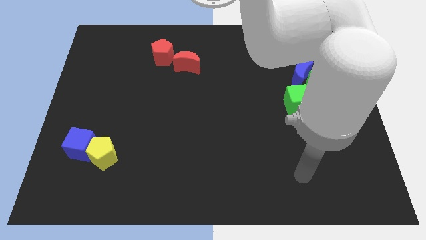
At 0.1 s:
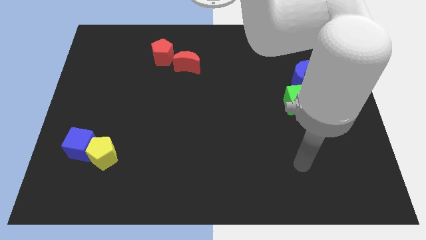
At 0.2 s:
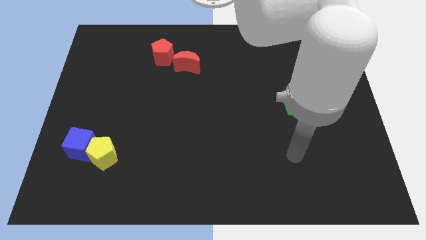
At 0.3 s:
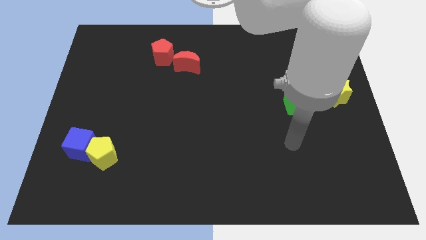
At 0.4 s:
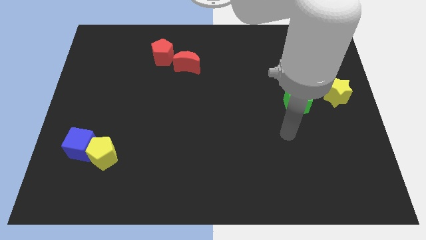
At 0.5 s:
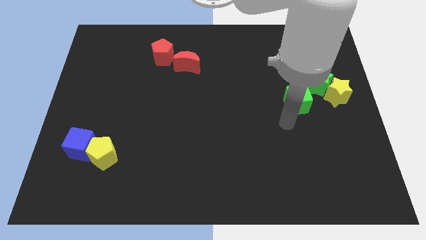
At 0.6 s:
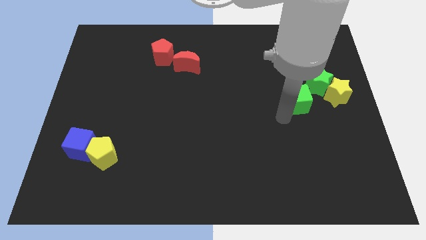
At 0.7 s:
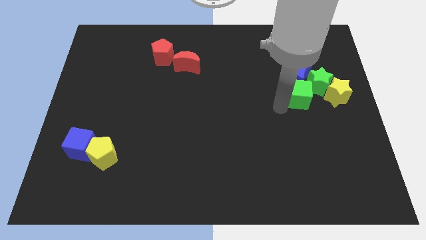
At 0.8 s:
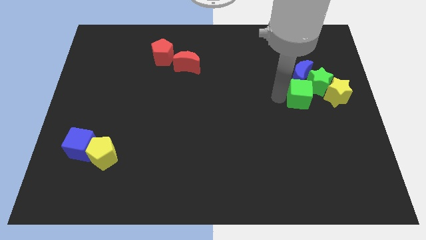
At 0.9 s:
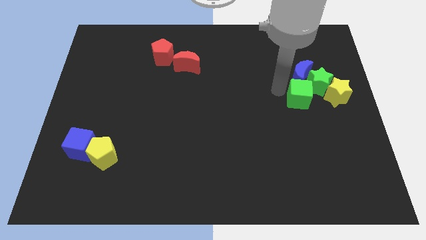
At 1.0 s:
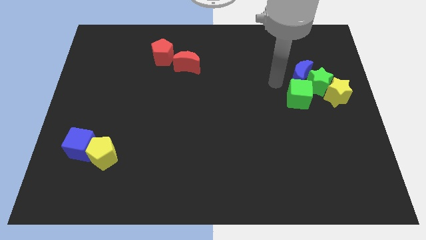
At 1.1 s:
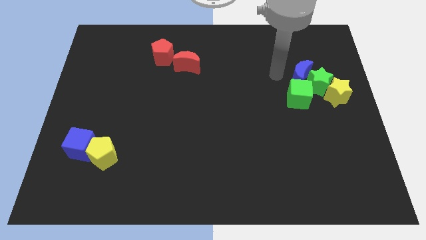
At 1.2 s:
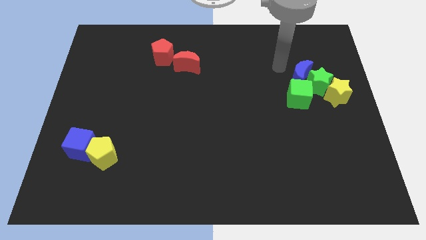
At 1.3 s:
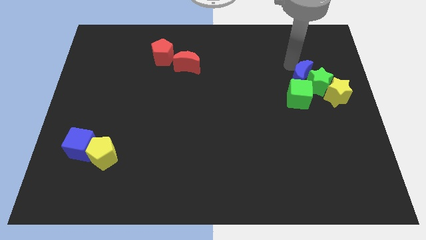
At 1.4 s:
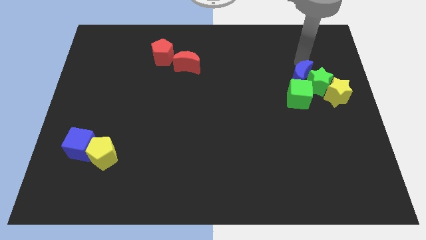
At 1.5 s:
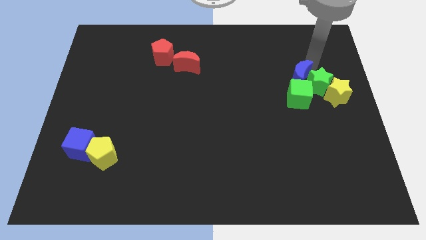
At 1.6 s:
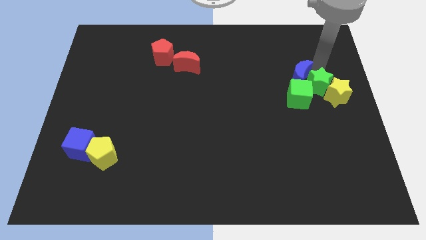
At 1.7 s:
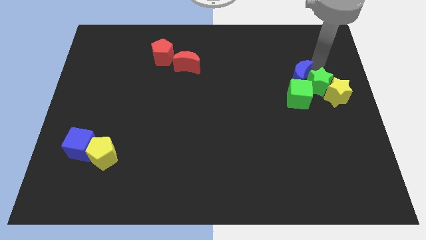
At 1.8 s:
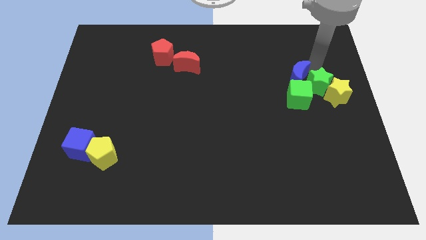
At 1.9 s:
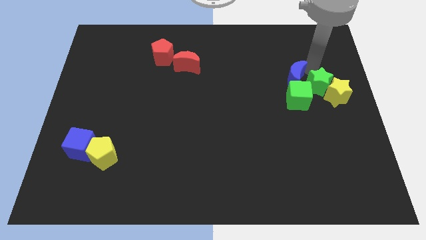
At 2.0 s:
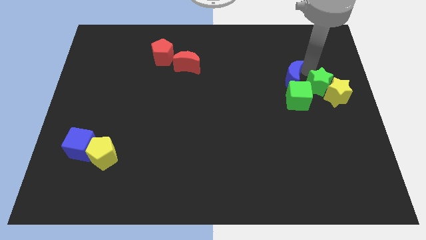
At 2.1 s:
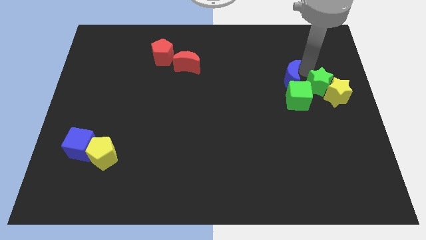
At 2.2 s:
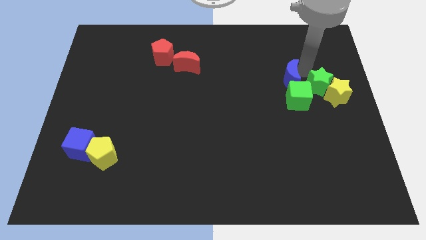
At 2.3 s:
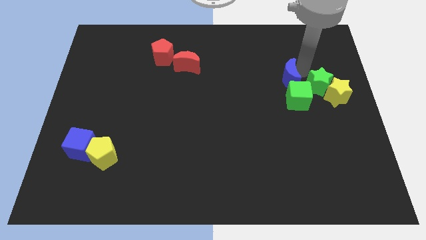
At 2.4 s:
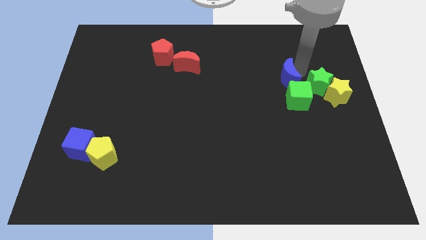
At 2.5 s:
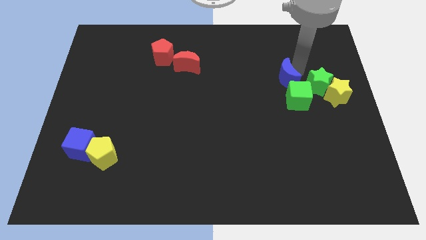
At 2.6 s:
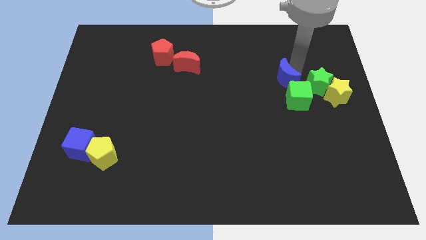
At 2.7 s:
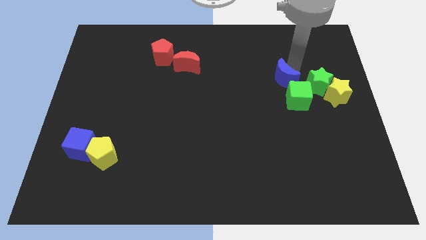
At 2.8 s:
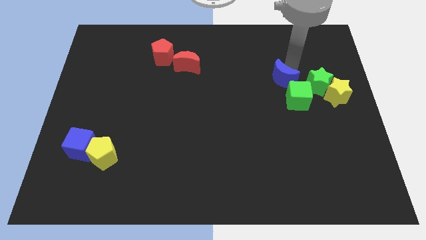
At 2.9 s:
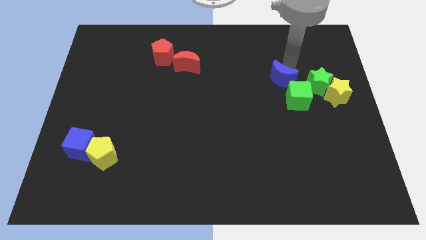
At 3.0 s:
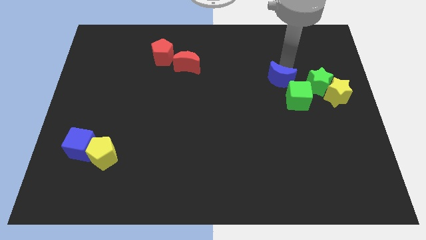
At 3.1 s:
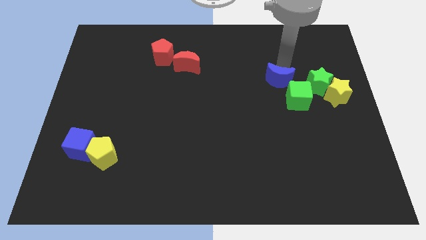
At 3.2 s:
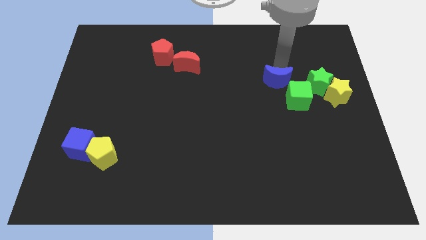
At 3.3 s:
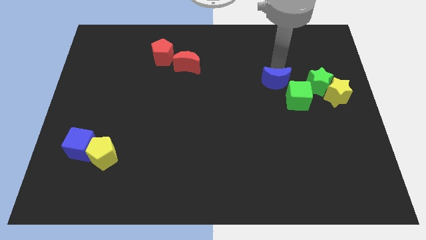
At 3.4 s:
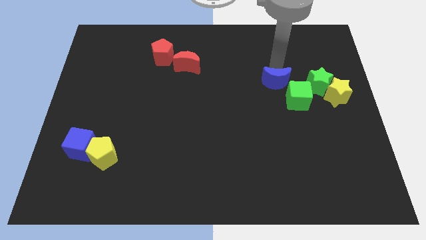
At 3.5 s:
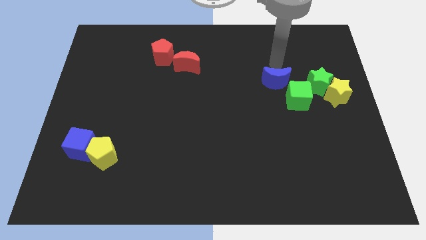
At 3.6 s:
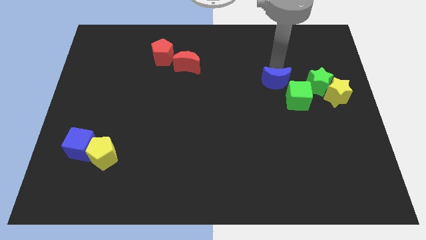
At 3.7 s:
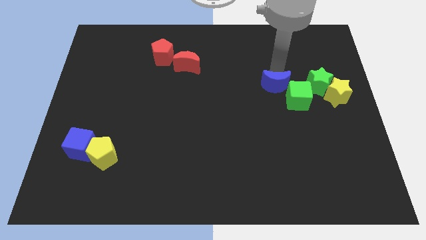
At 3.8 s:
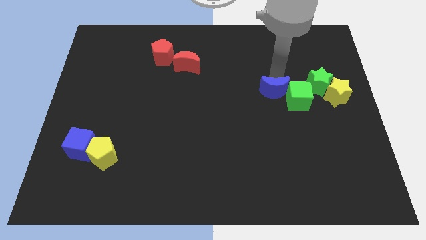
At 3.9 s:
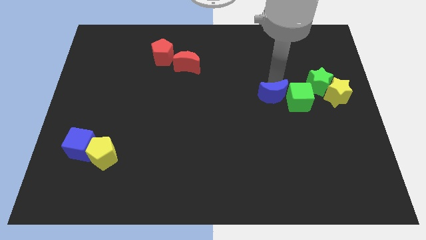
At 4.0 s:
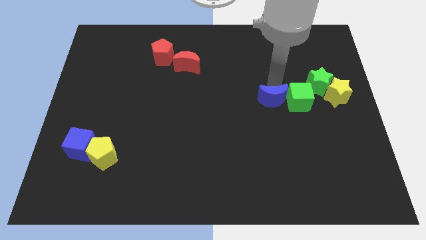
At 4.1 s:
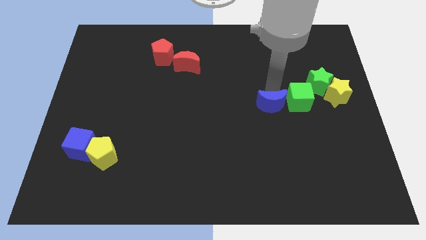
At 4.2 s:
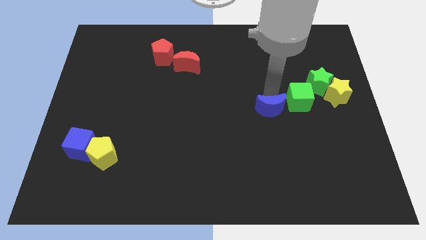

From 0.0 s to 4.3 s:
slightly slide the blue moon downwards

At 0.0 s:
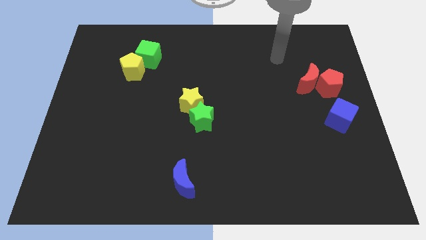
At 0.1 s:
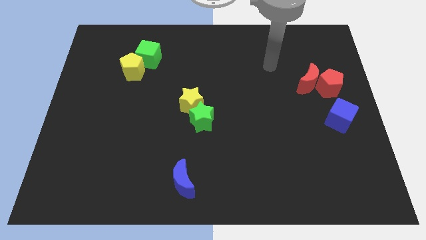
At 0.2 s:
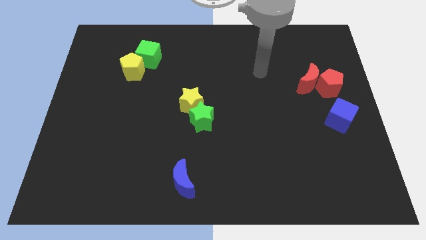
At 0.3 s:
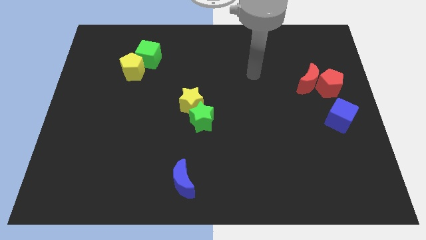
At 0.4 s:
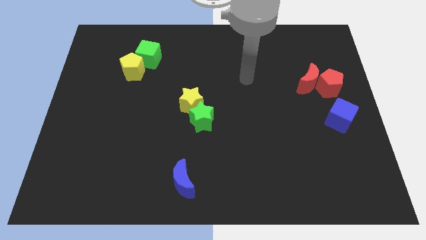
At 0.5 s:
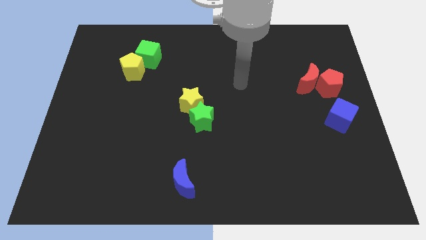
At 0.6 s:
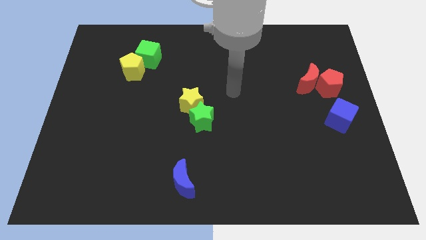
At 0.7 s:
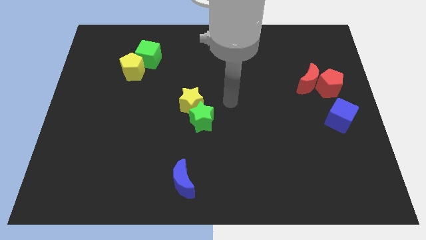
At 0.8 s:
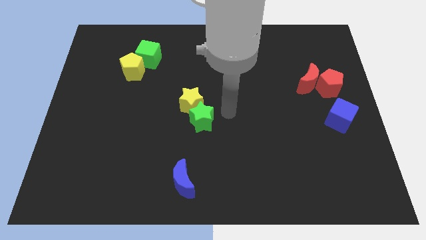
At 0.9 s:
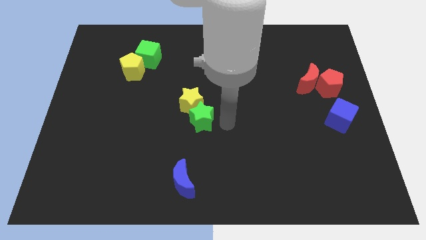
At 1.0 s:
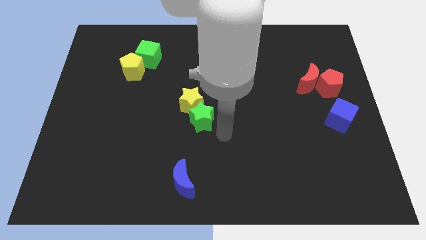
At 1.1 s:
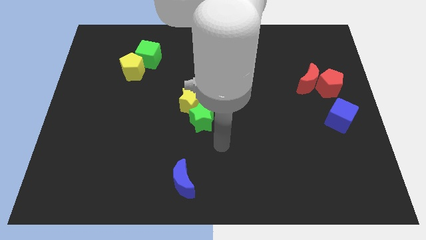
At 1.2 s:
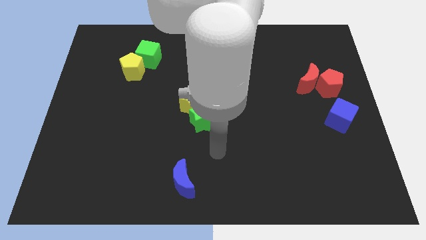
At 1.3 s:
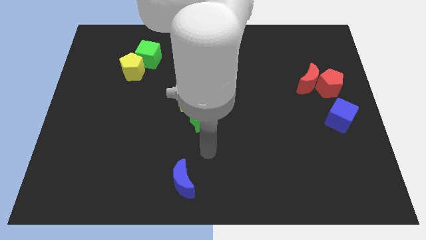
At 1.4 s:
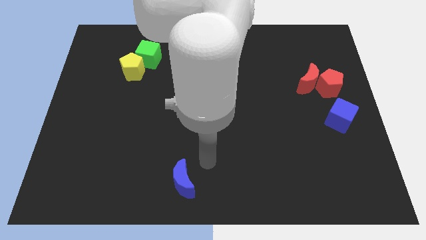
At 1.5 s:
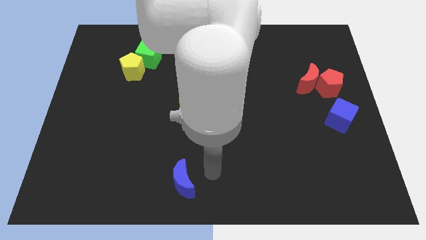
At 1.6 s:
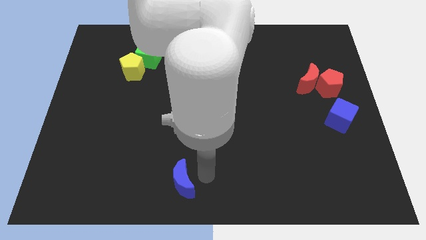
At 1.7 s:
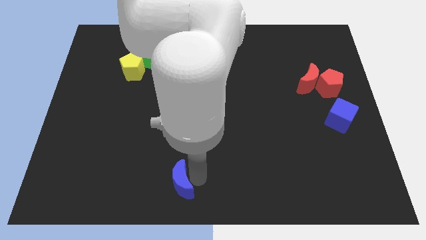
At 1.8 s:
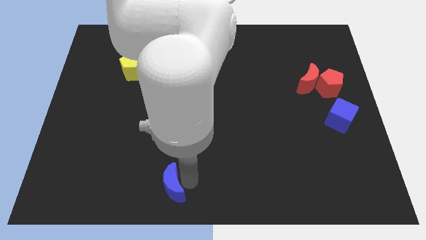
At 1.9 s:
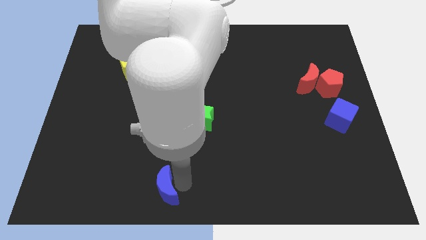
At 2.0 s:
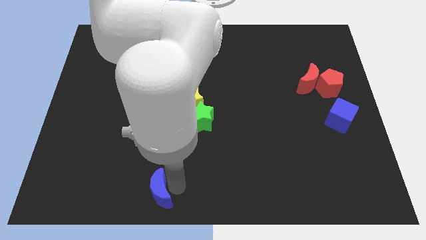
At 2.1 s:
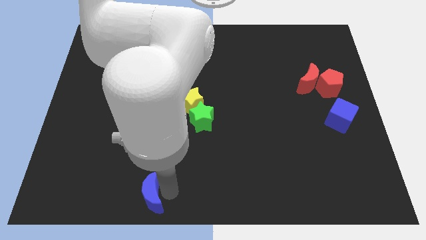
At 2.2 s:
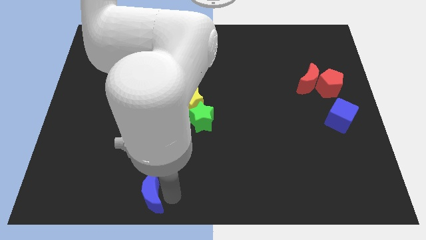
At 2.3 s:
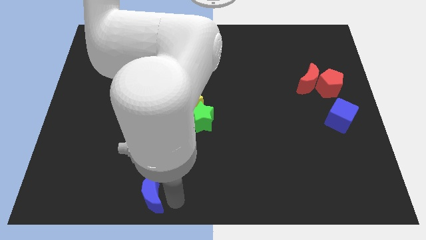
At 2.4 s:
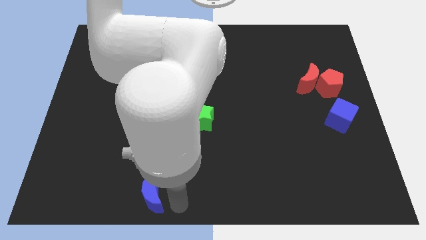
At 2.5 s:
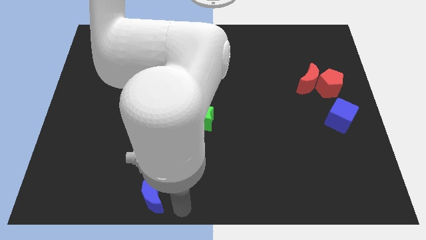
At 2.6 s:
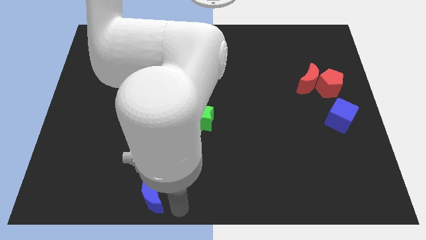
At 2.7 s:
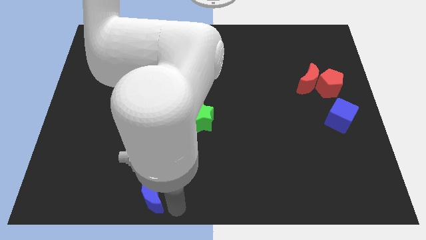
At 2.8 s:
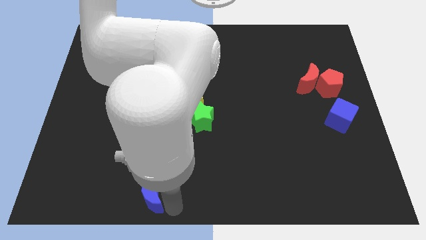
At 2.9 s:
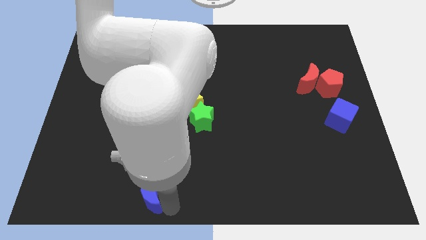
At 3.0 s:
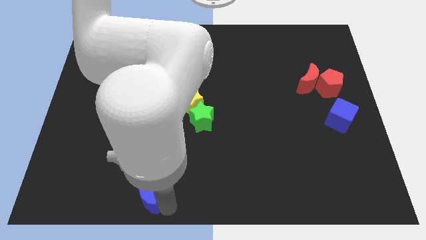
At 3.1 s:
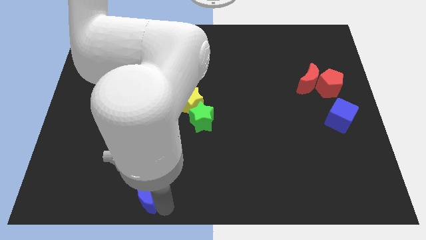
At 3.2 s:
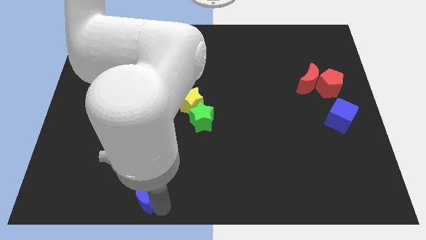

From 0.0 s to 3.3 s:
slightly slide the blue moon to the left

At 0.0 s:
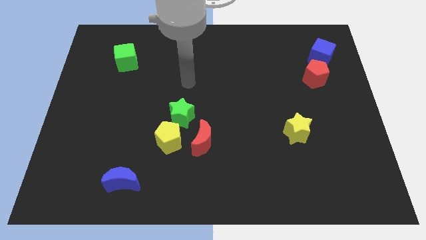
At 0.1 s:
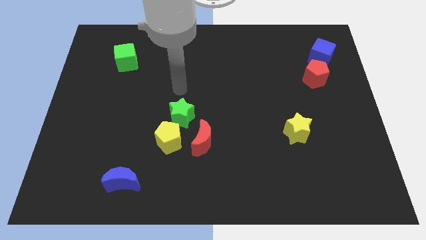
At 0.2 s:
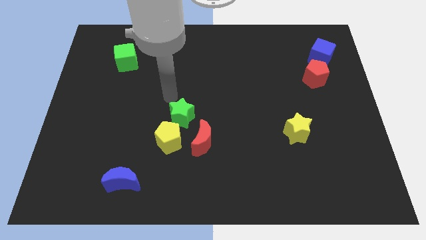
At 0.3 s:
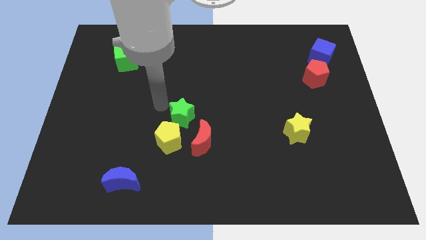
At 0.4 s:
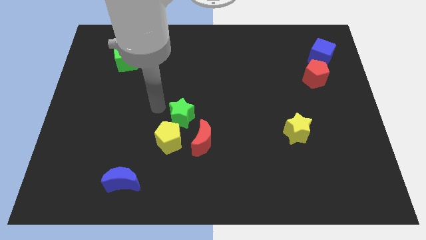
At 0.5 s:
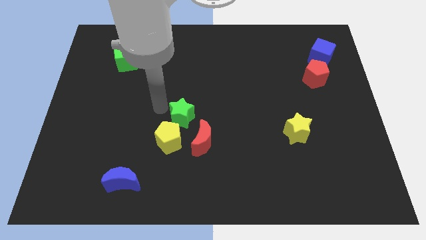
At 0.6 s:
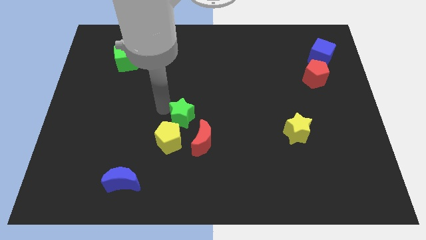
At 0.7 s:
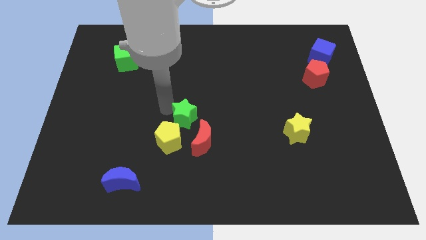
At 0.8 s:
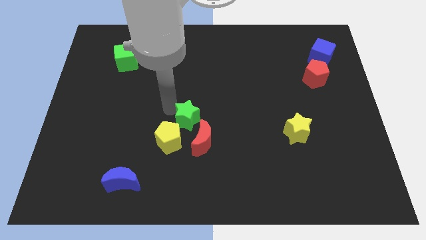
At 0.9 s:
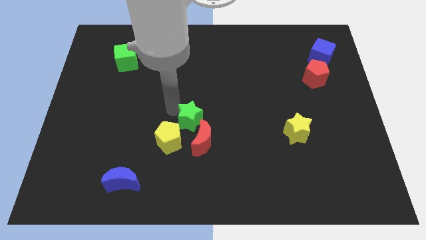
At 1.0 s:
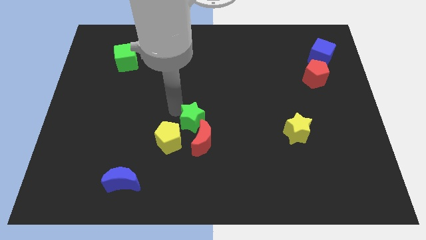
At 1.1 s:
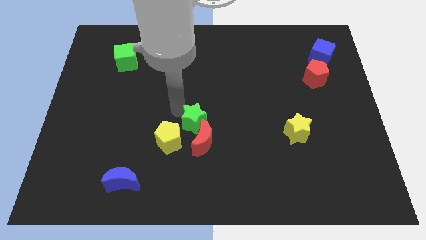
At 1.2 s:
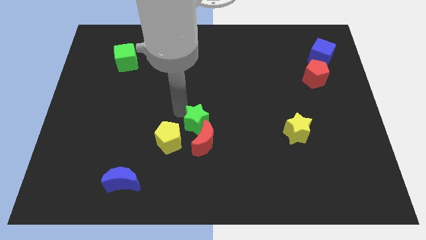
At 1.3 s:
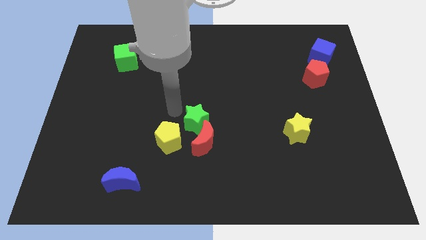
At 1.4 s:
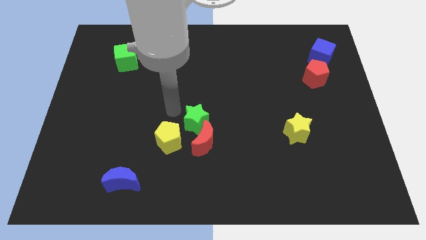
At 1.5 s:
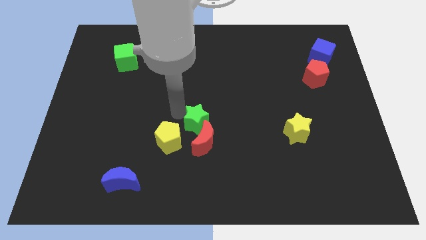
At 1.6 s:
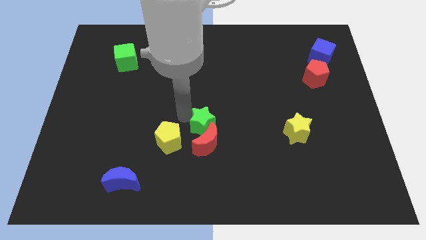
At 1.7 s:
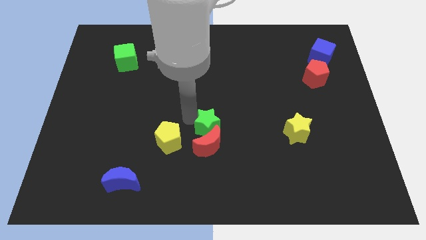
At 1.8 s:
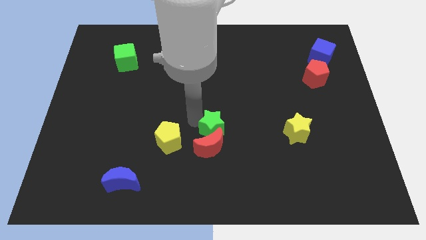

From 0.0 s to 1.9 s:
push the green star downwards and then to the right a bit
